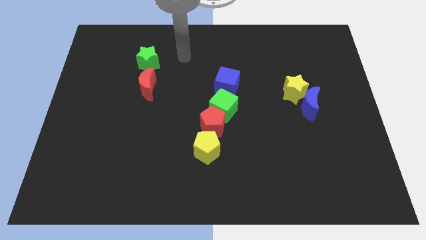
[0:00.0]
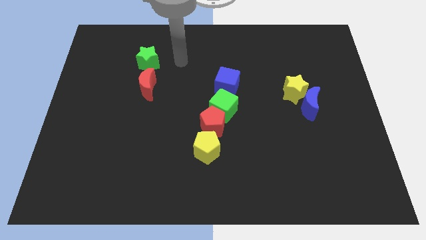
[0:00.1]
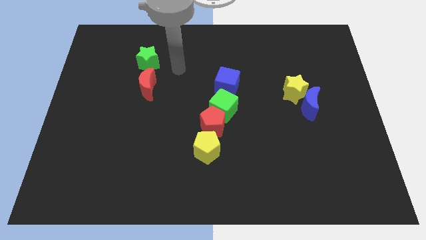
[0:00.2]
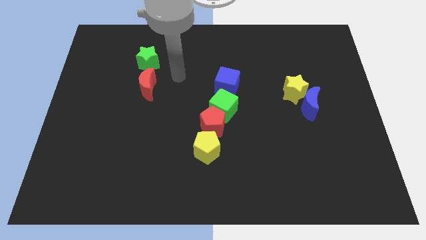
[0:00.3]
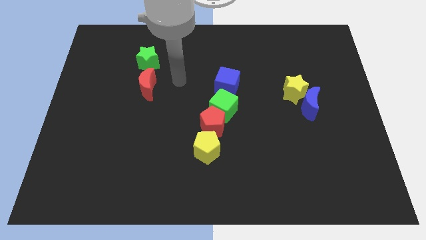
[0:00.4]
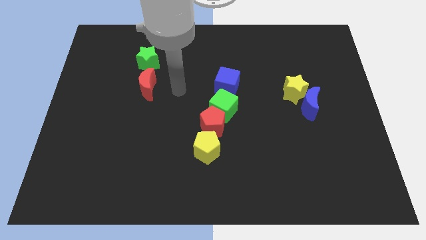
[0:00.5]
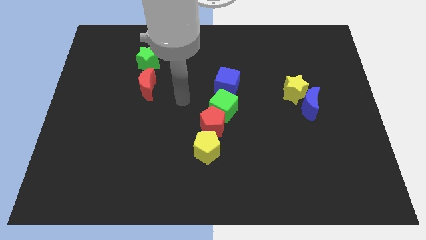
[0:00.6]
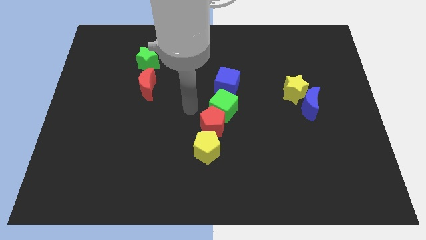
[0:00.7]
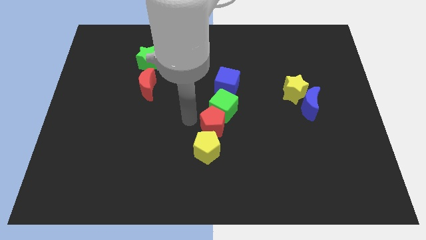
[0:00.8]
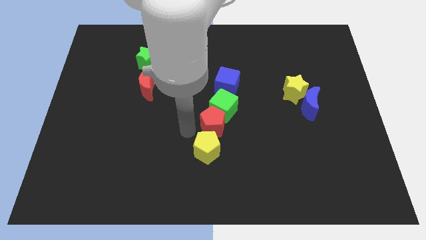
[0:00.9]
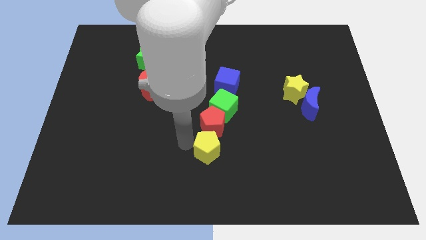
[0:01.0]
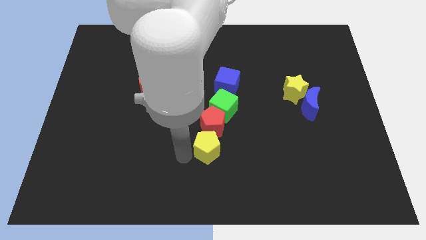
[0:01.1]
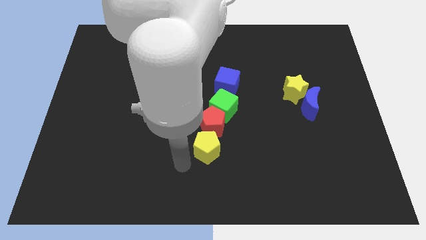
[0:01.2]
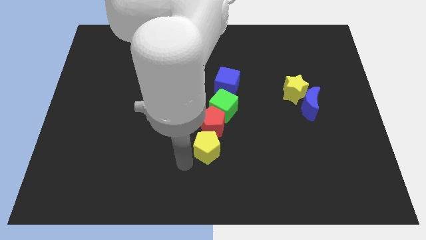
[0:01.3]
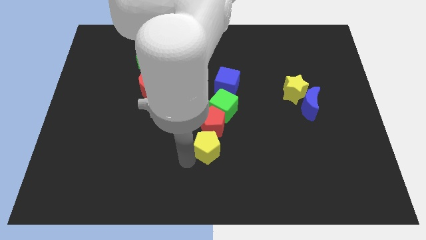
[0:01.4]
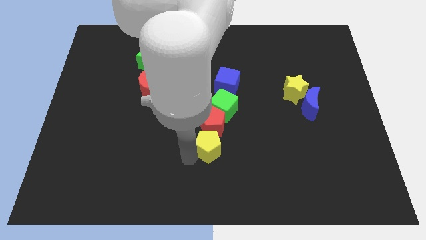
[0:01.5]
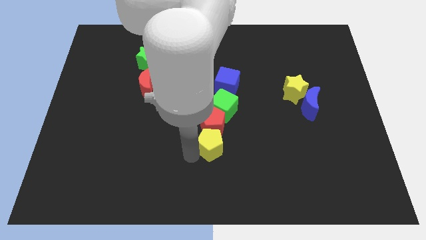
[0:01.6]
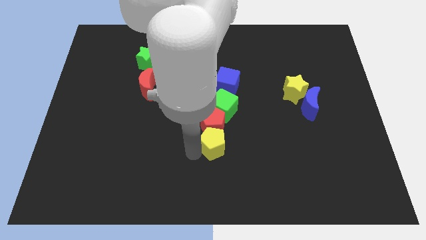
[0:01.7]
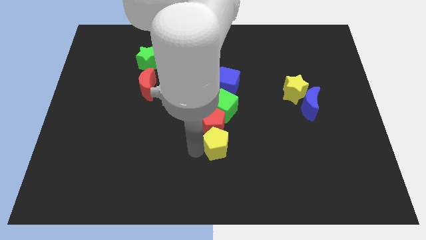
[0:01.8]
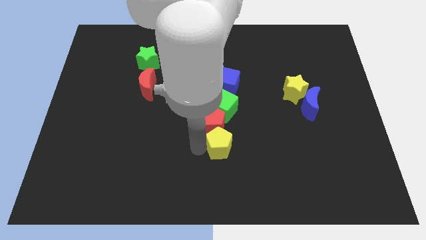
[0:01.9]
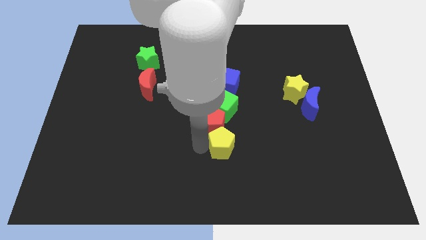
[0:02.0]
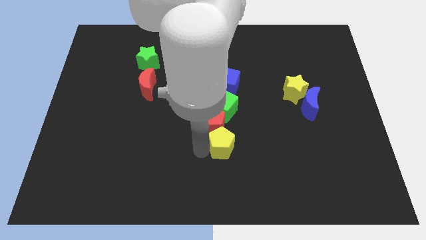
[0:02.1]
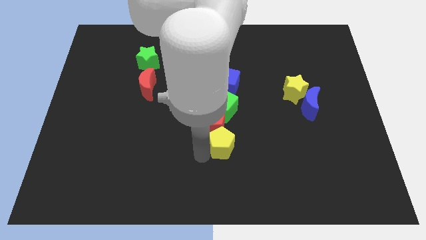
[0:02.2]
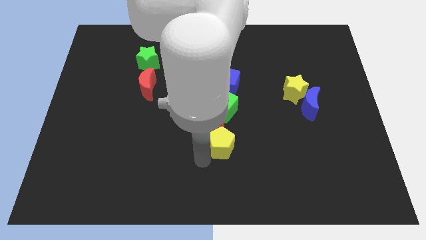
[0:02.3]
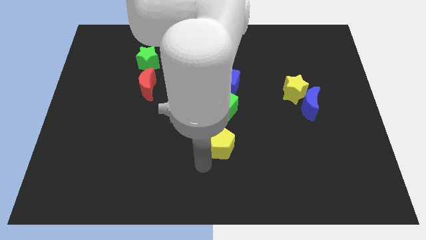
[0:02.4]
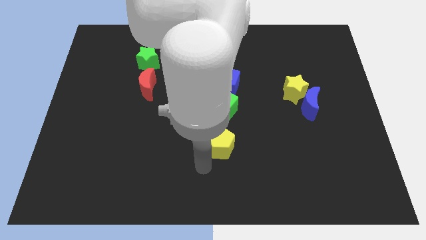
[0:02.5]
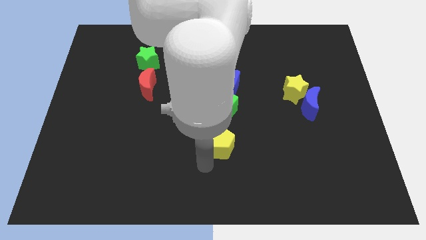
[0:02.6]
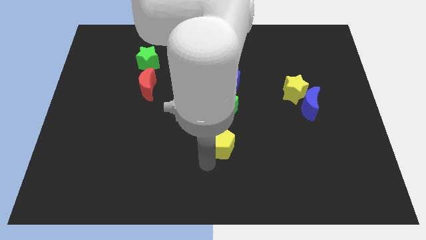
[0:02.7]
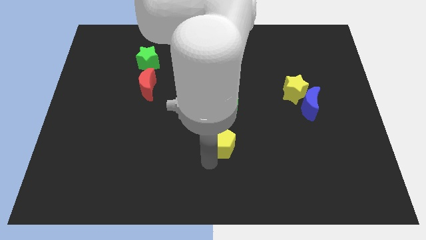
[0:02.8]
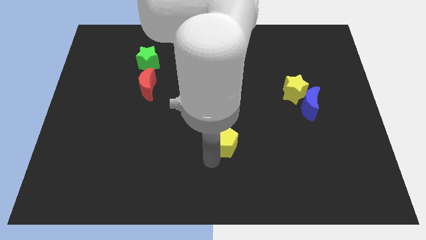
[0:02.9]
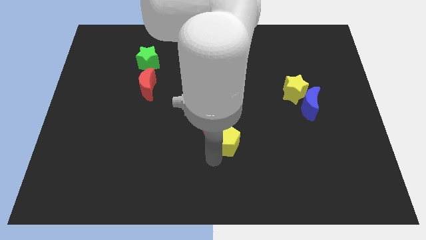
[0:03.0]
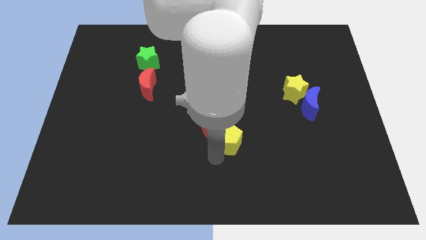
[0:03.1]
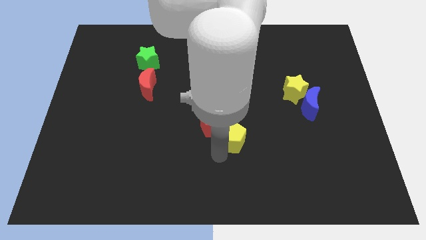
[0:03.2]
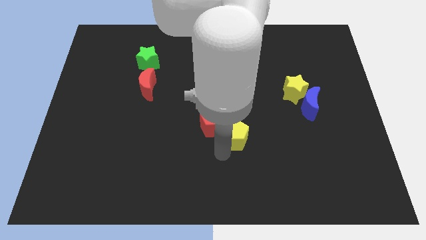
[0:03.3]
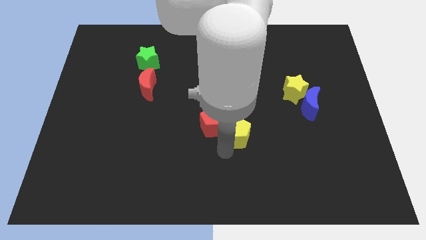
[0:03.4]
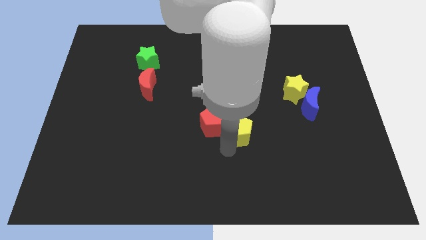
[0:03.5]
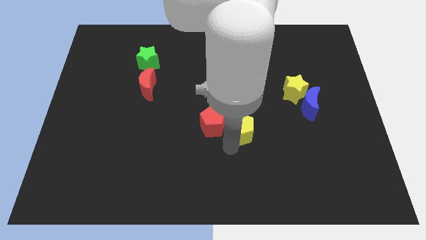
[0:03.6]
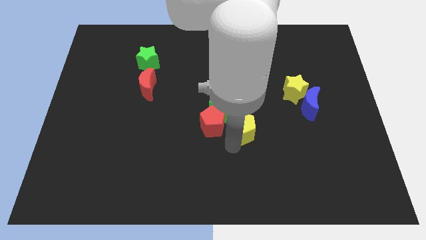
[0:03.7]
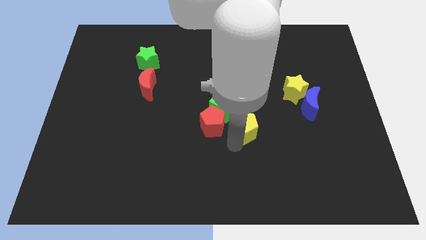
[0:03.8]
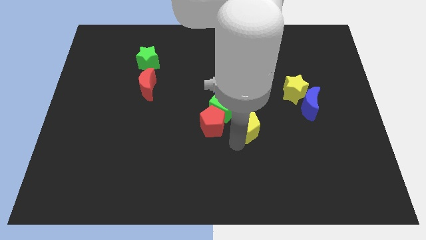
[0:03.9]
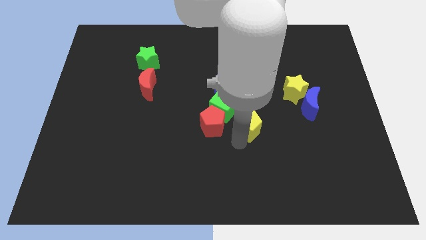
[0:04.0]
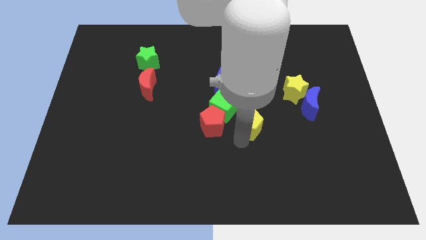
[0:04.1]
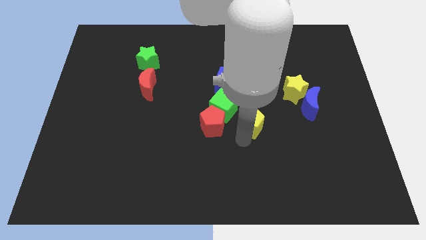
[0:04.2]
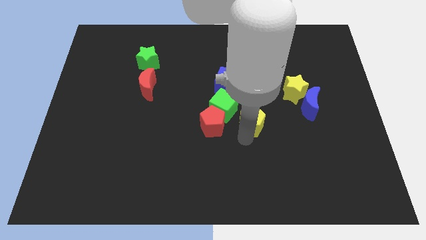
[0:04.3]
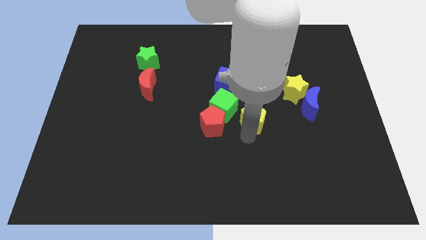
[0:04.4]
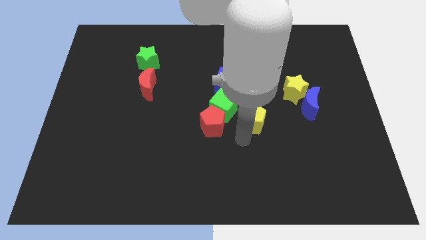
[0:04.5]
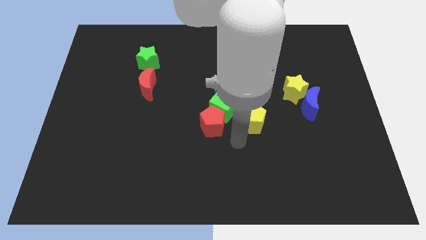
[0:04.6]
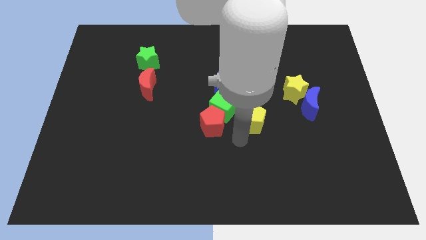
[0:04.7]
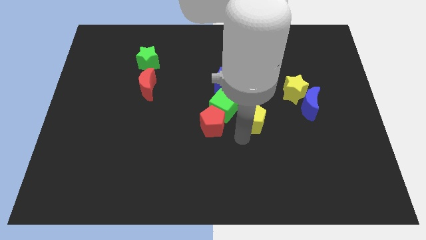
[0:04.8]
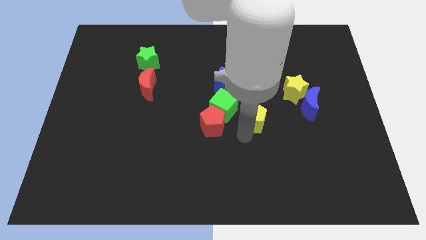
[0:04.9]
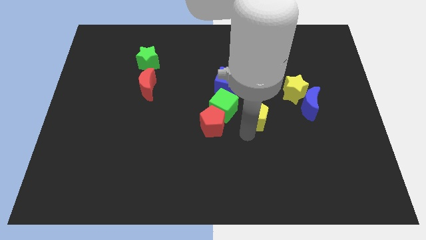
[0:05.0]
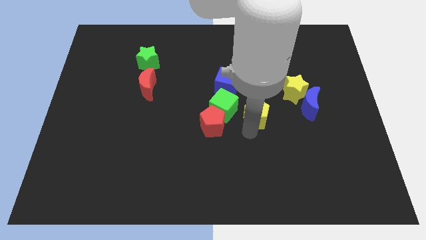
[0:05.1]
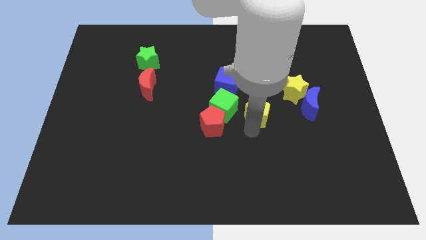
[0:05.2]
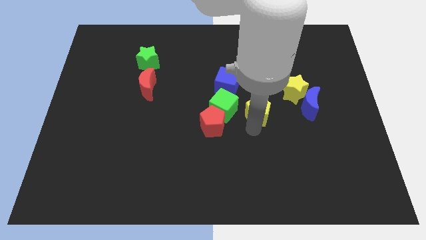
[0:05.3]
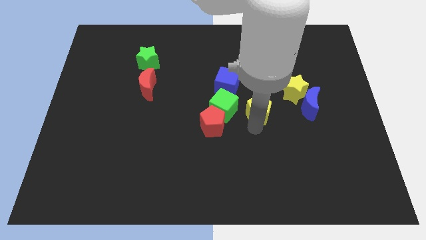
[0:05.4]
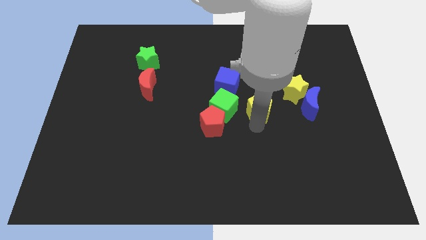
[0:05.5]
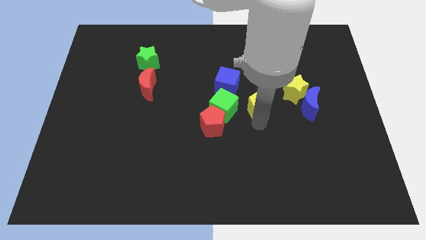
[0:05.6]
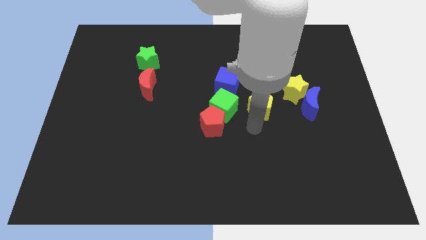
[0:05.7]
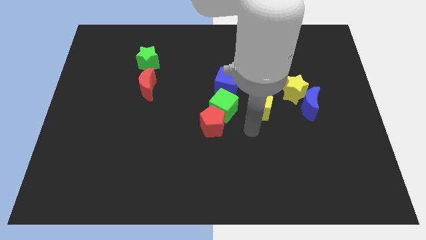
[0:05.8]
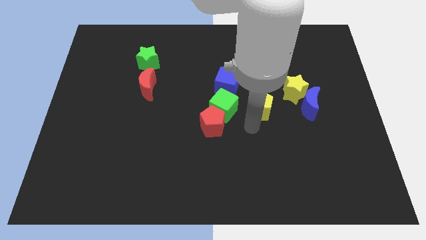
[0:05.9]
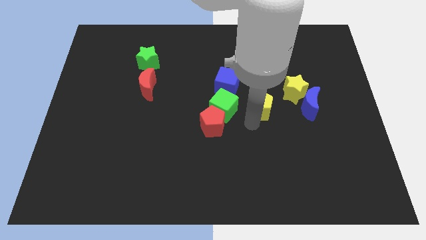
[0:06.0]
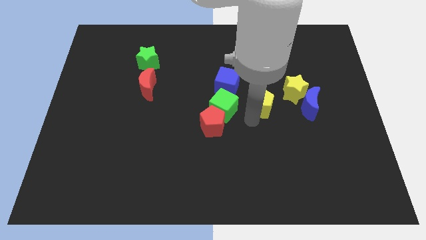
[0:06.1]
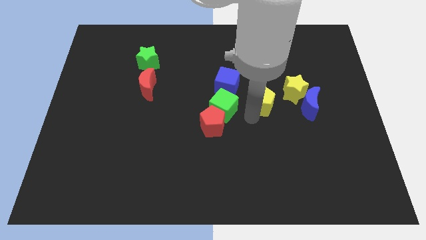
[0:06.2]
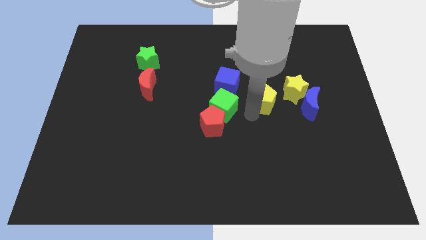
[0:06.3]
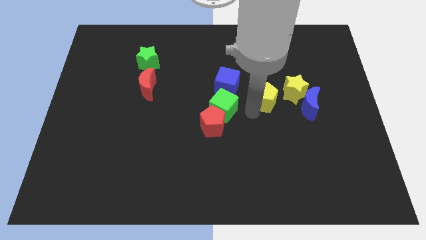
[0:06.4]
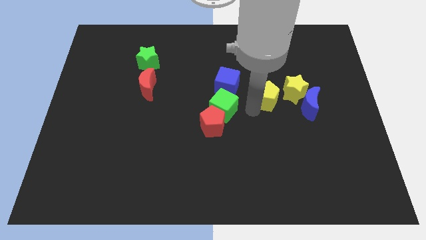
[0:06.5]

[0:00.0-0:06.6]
push the yellow pentagon upwards and then right

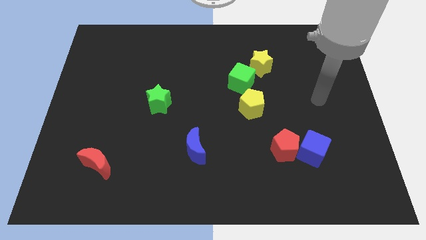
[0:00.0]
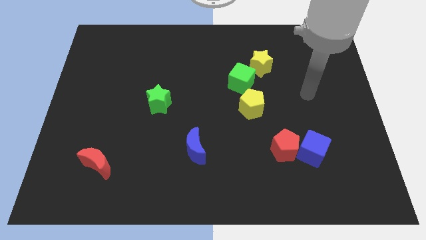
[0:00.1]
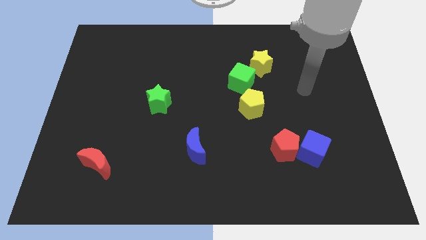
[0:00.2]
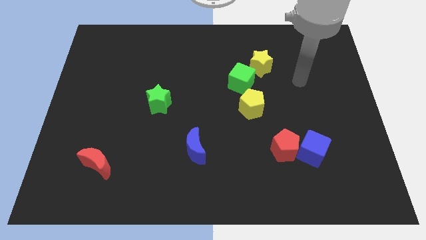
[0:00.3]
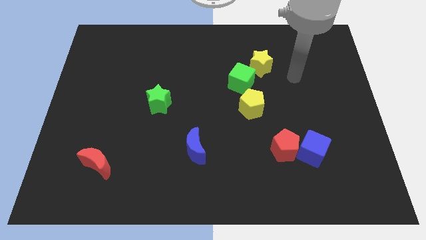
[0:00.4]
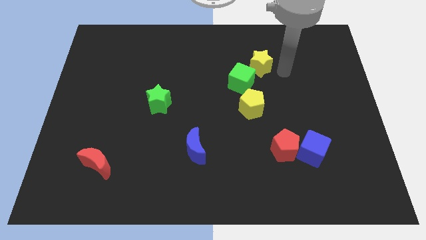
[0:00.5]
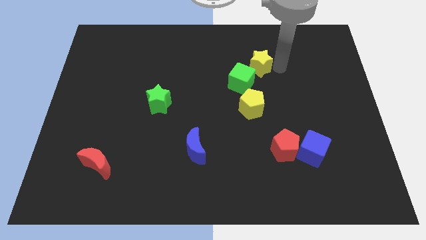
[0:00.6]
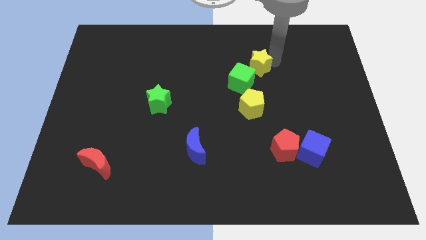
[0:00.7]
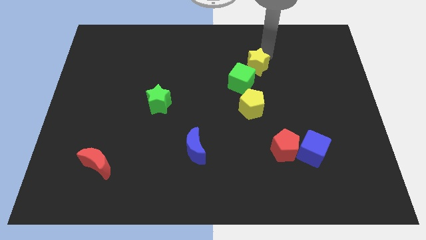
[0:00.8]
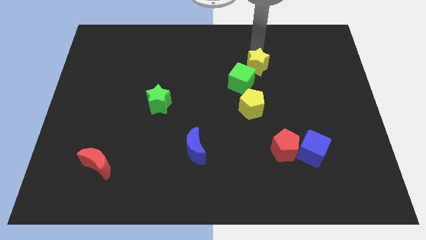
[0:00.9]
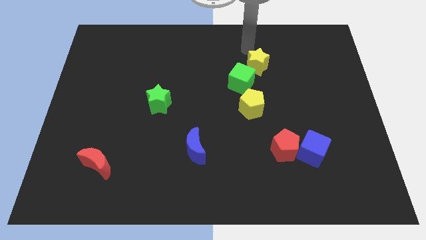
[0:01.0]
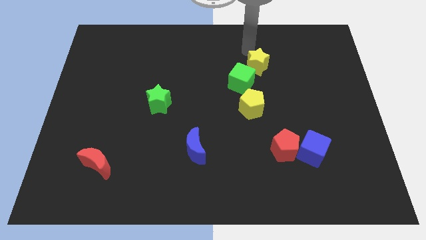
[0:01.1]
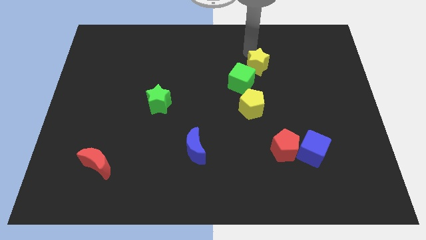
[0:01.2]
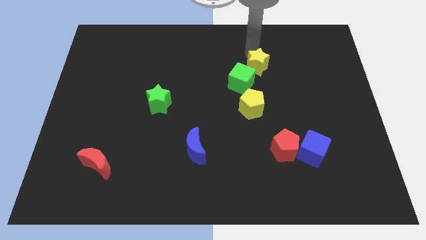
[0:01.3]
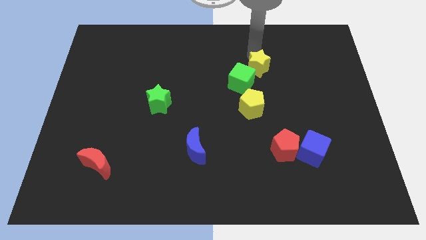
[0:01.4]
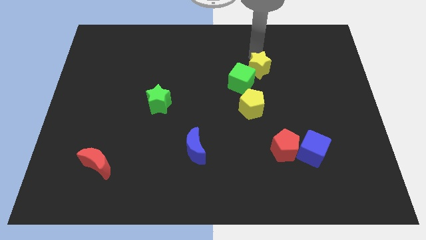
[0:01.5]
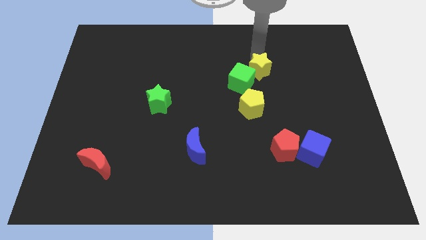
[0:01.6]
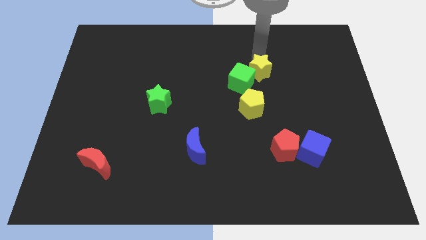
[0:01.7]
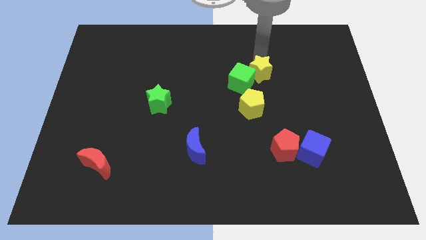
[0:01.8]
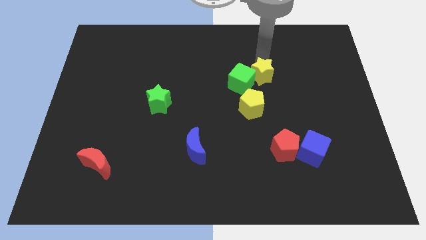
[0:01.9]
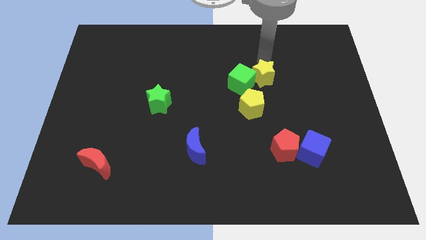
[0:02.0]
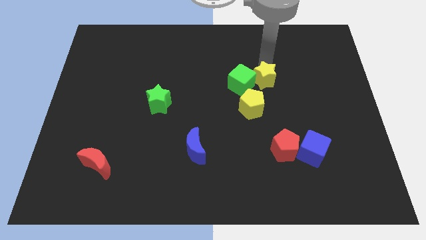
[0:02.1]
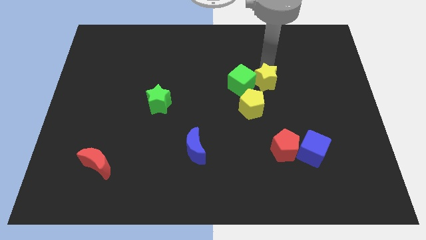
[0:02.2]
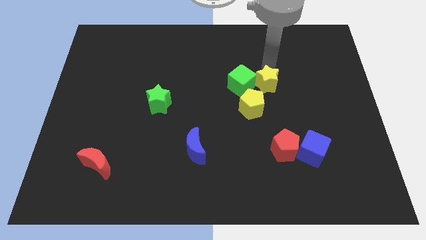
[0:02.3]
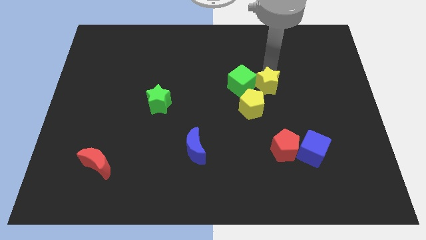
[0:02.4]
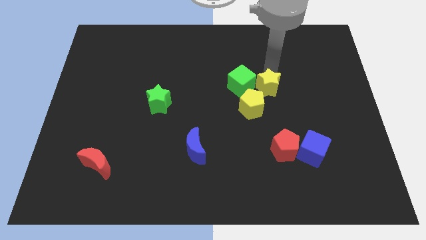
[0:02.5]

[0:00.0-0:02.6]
slide the yellow star a little down
